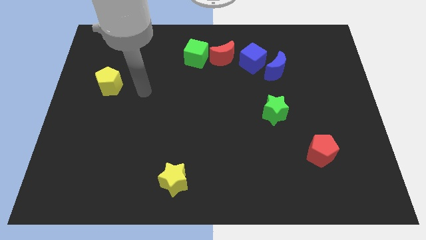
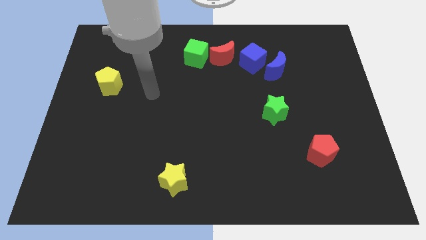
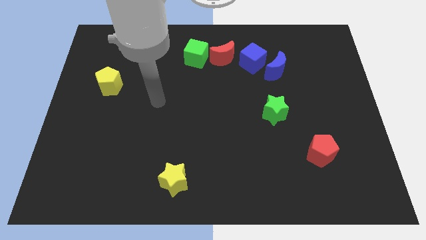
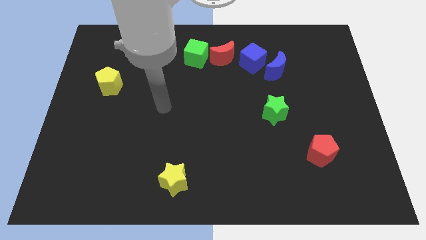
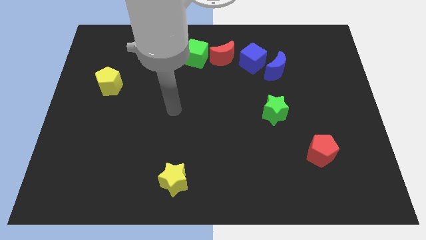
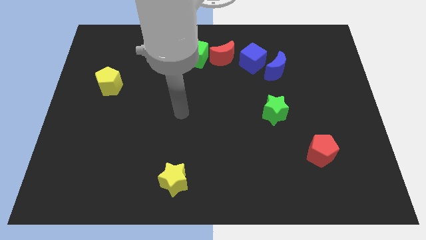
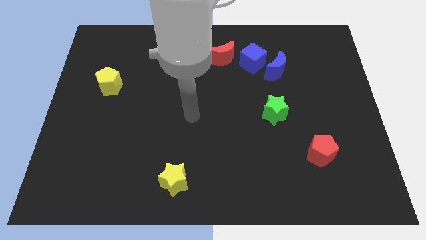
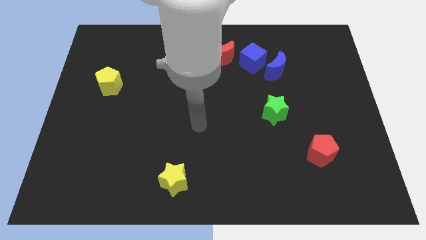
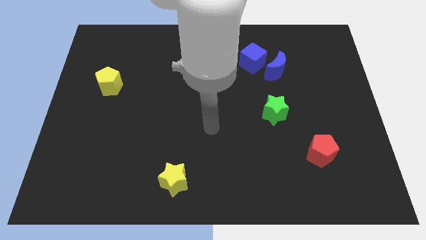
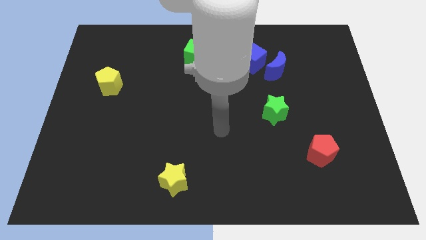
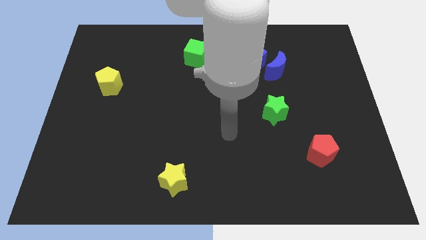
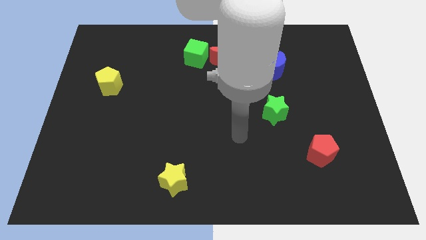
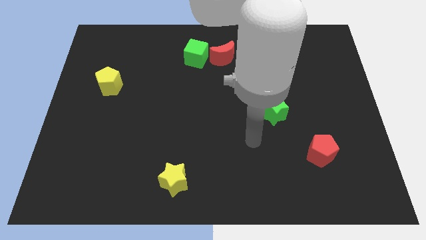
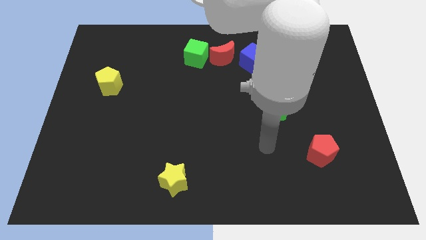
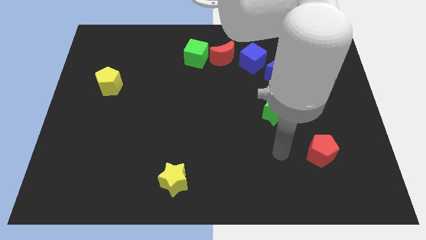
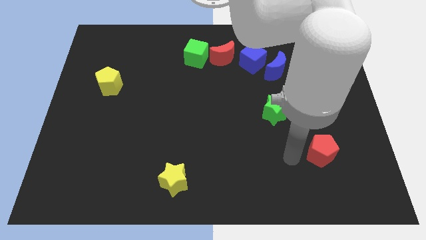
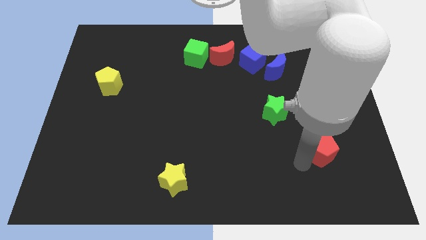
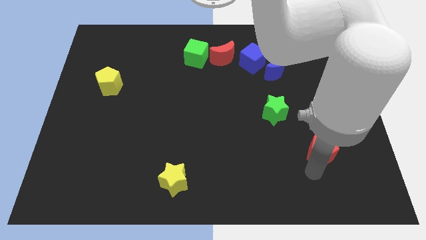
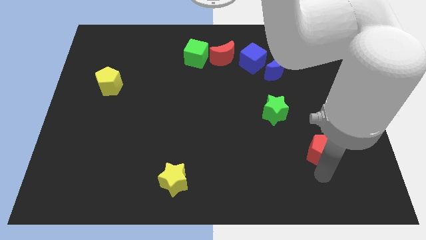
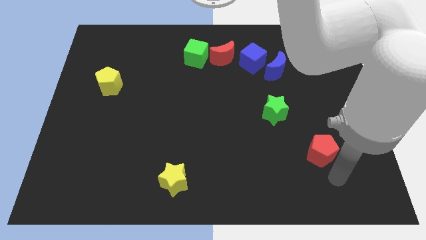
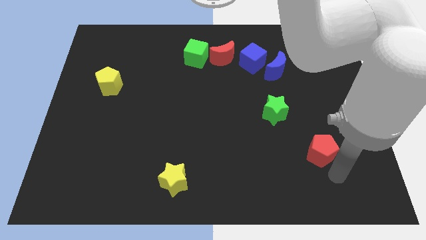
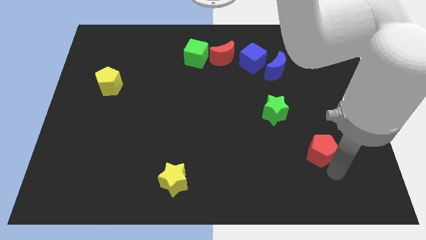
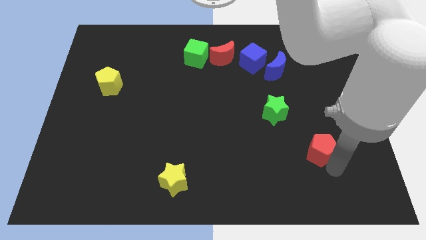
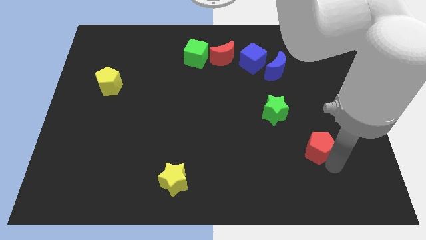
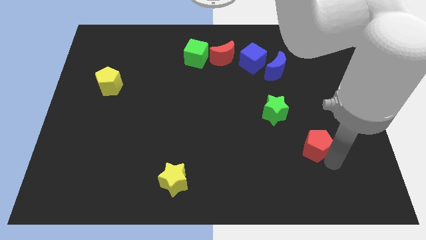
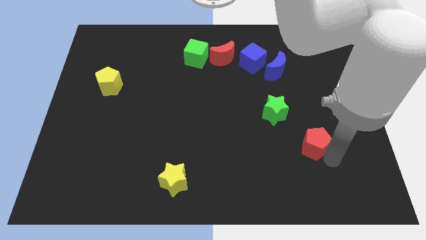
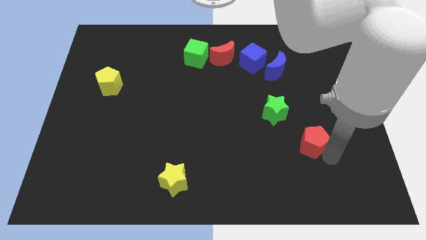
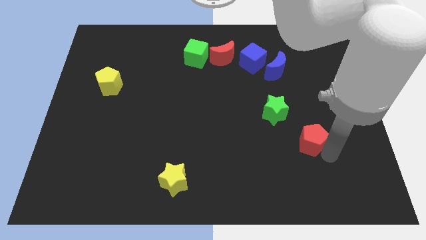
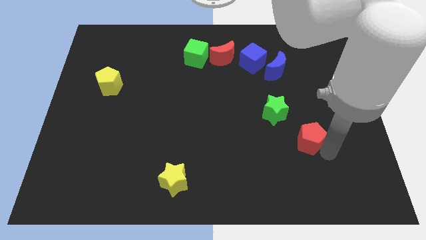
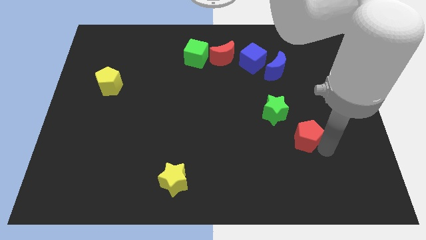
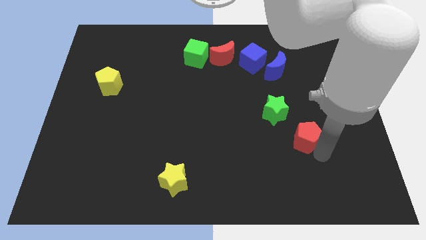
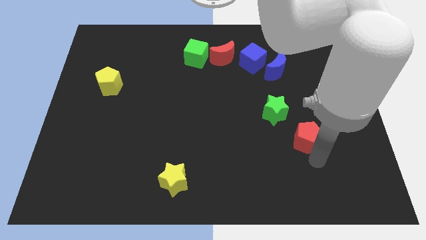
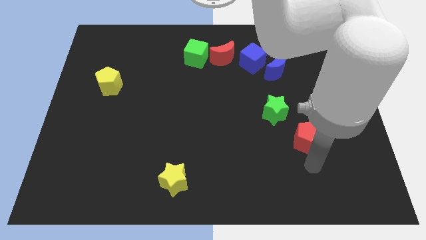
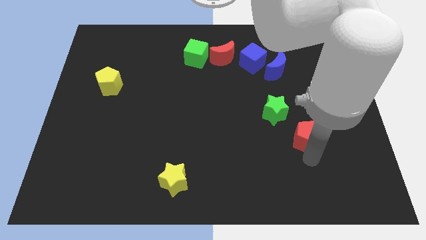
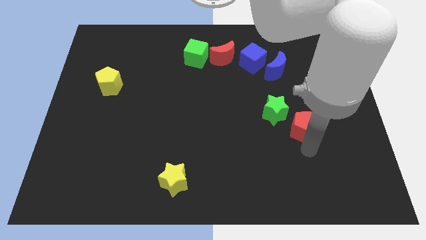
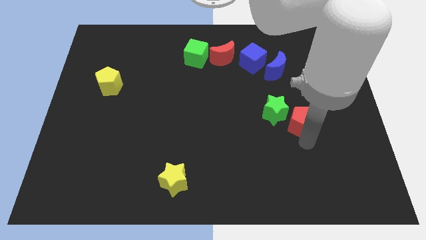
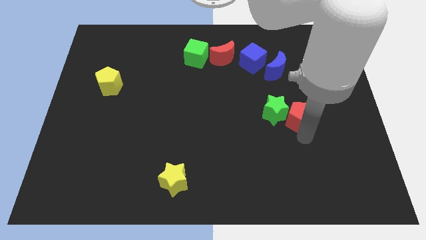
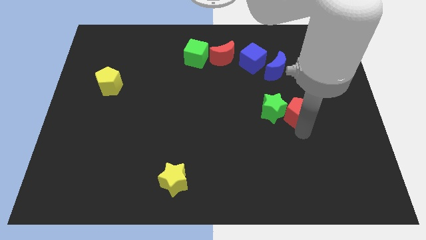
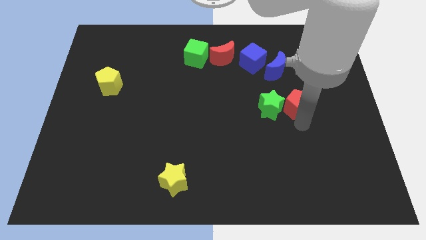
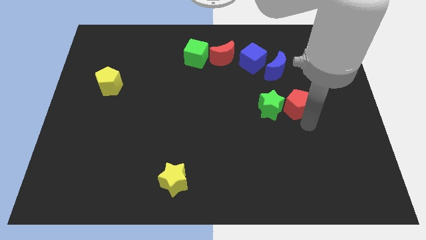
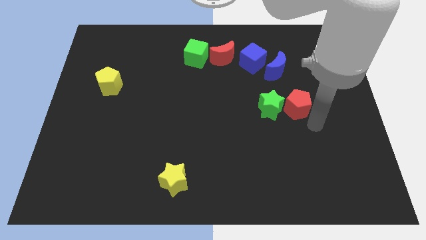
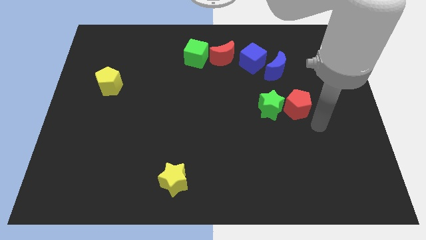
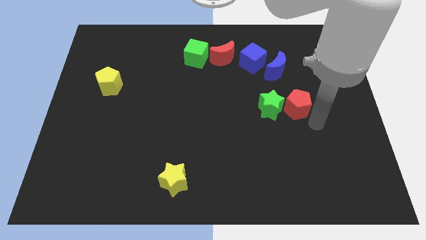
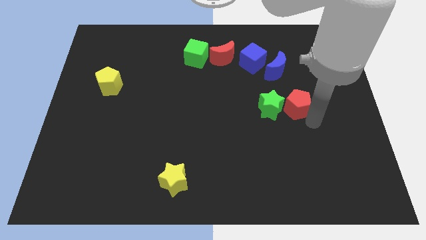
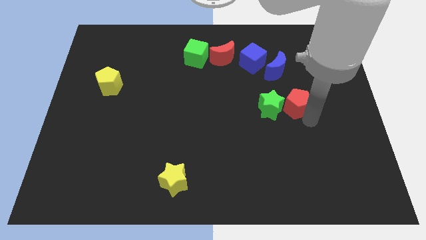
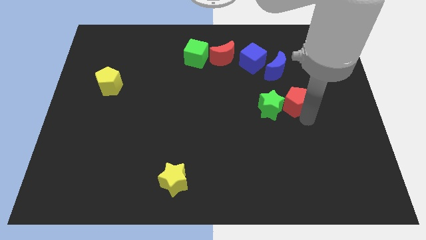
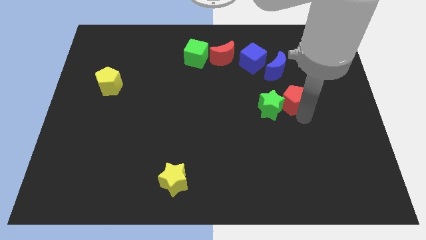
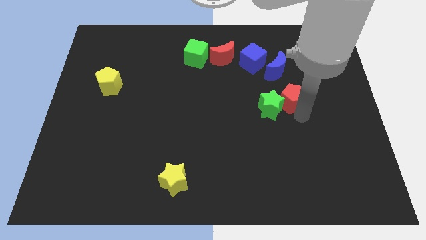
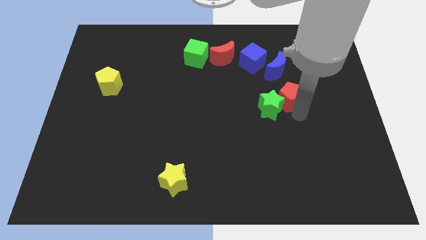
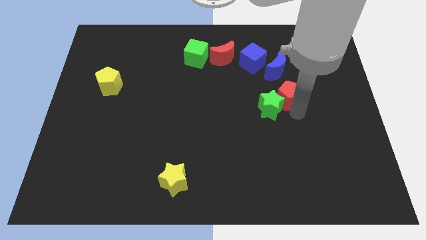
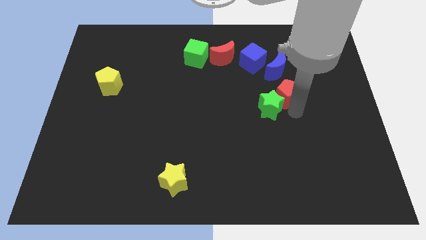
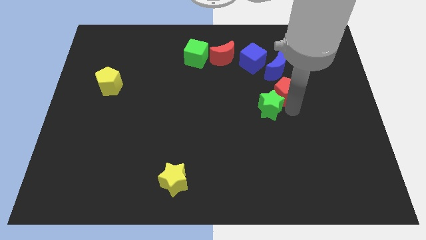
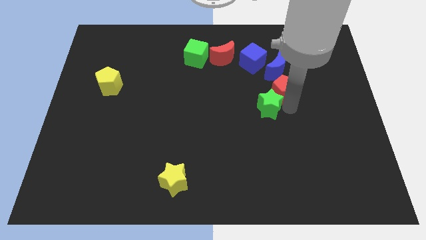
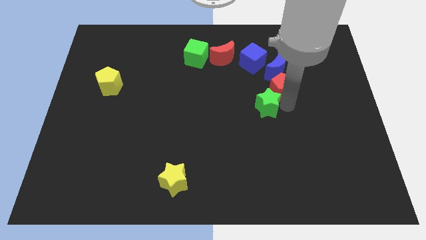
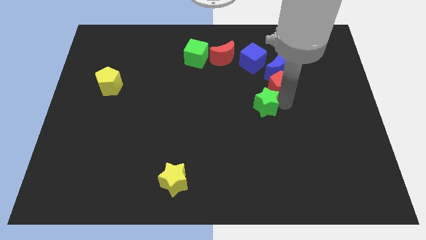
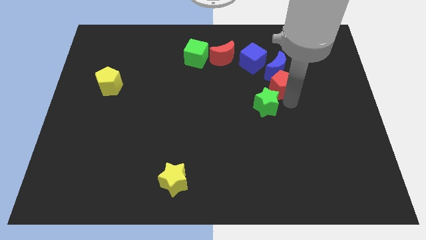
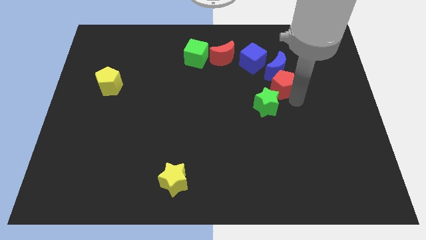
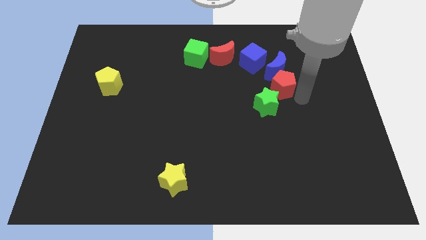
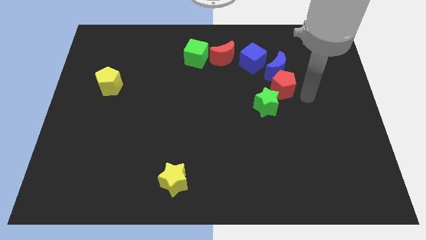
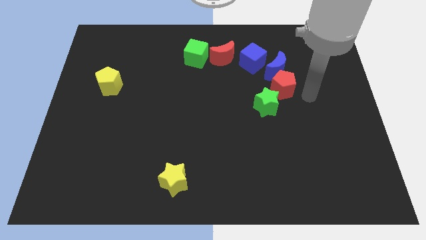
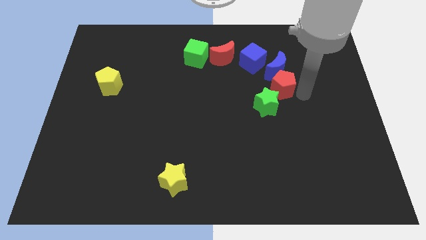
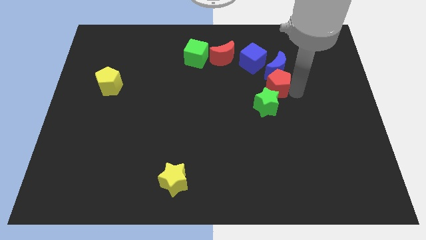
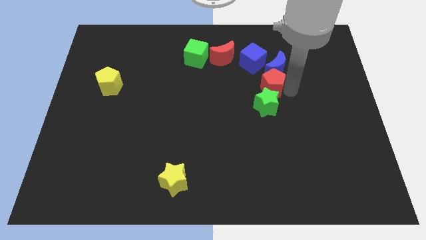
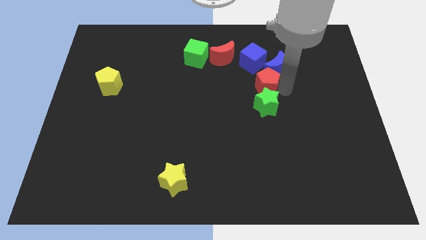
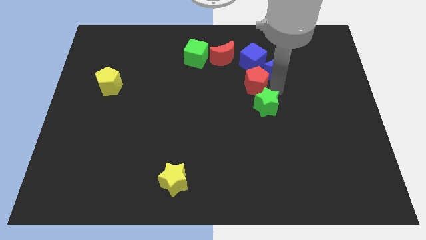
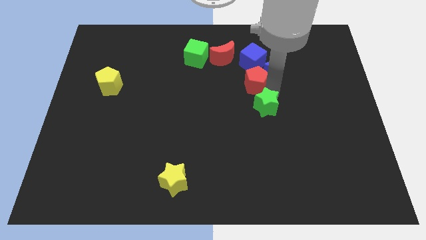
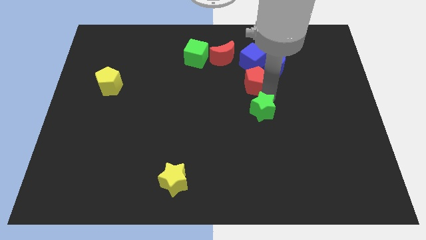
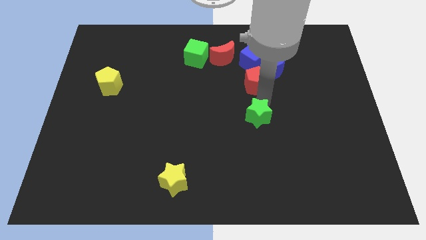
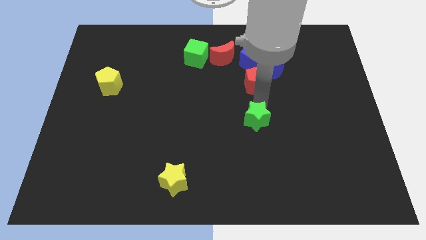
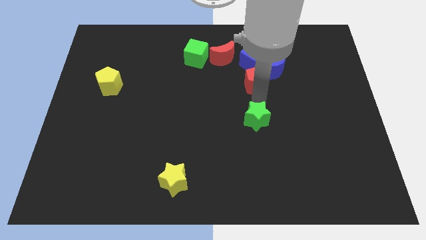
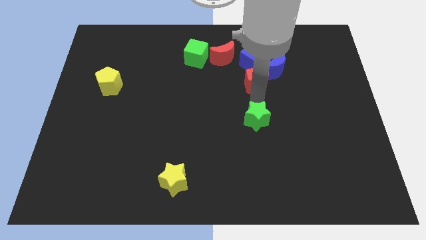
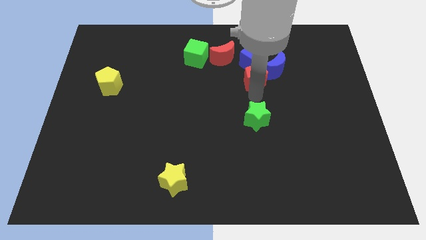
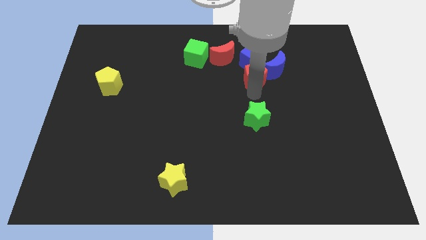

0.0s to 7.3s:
put the red pentagon to the blue cube
